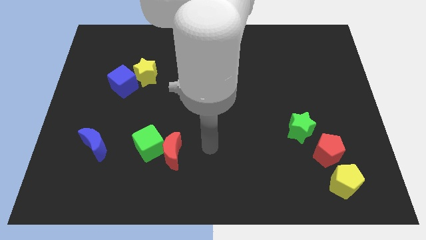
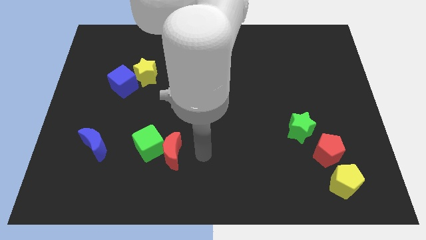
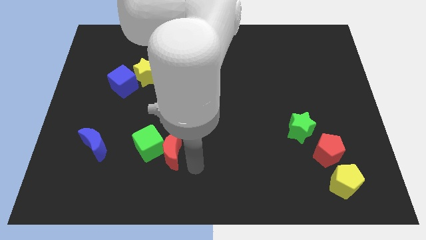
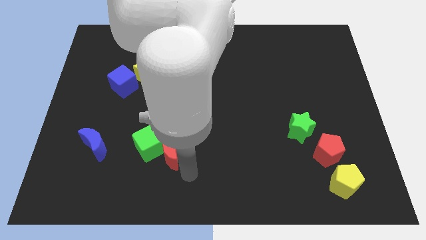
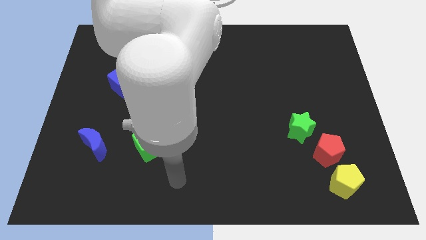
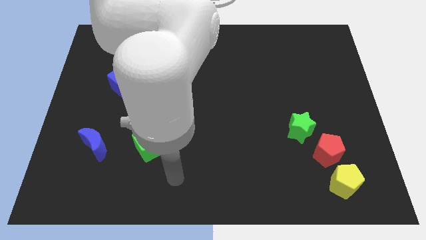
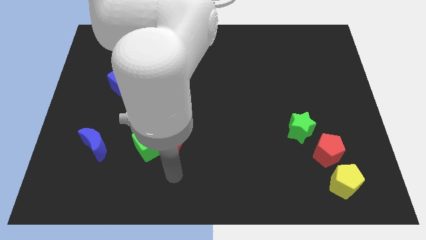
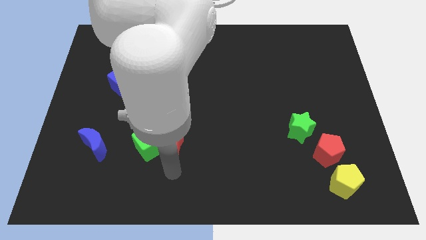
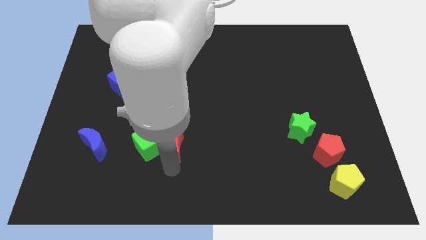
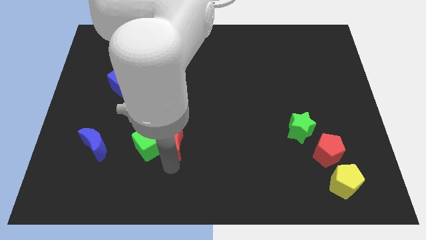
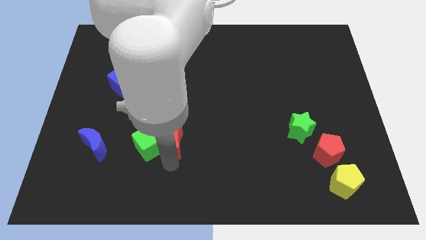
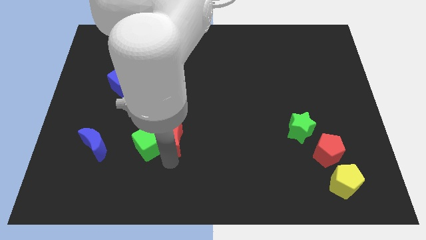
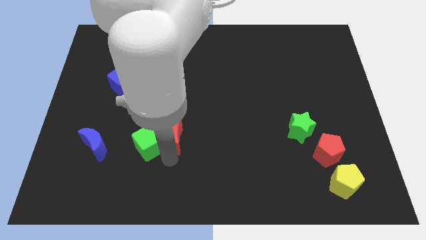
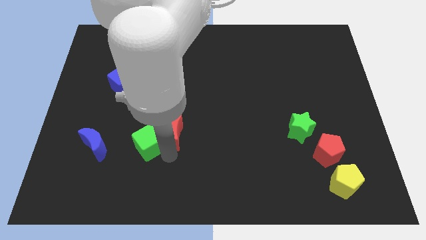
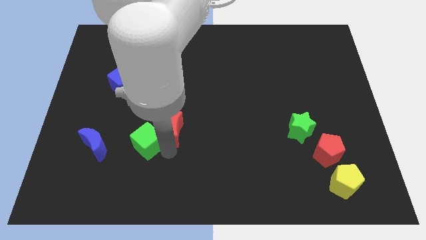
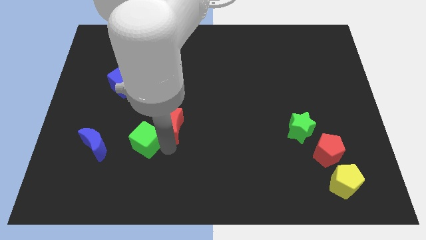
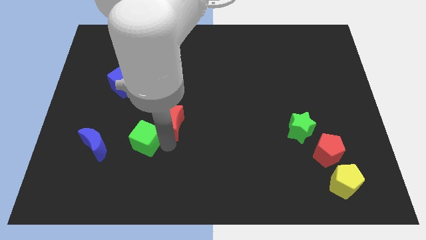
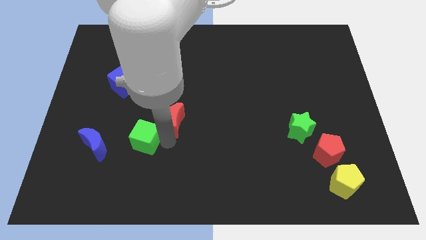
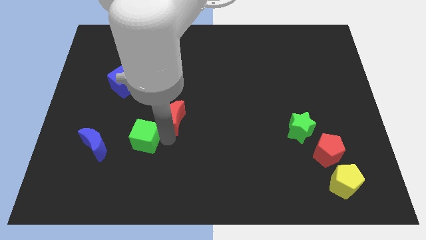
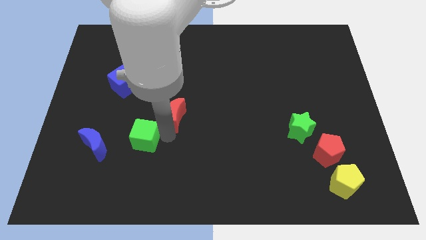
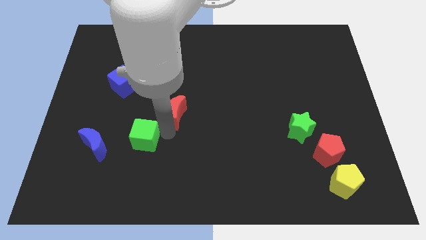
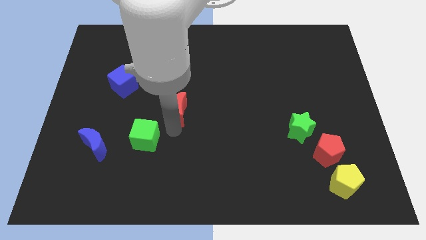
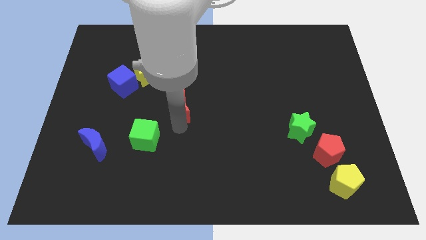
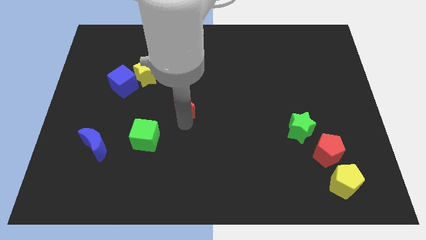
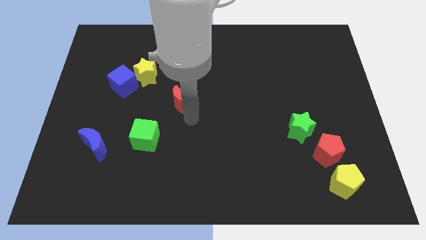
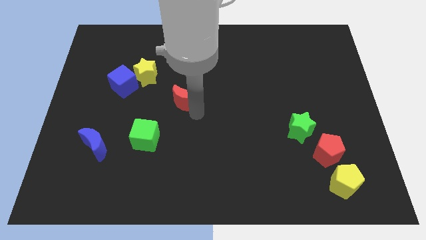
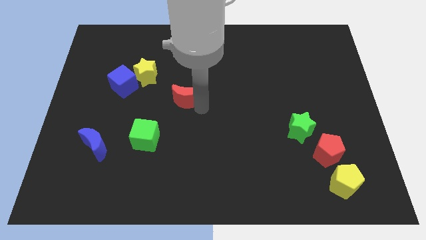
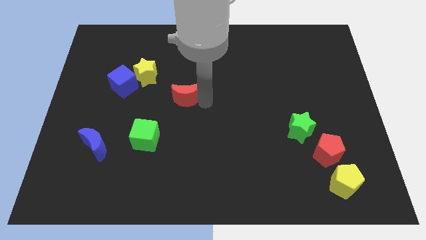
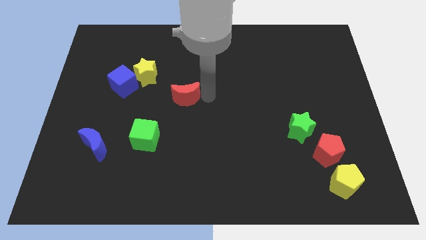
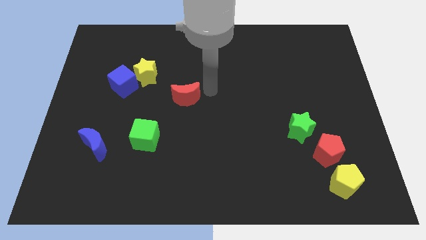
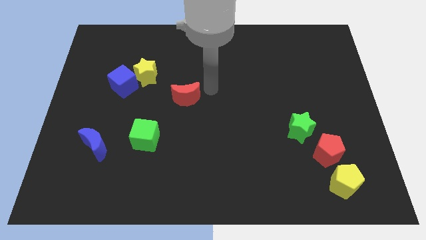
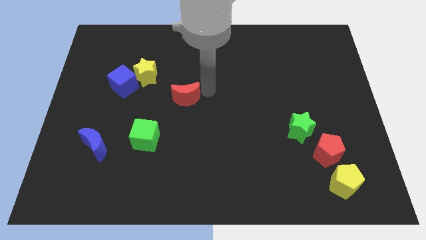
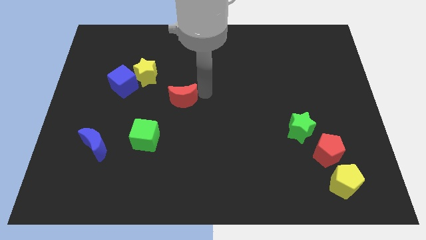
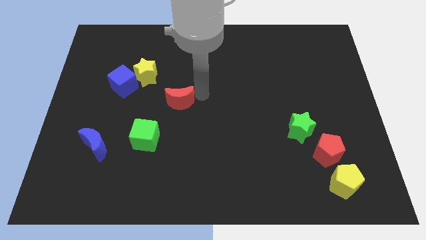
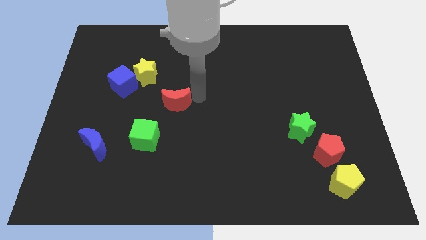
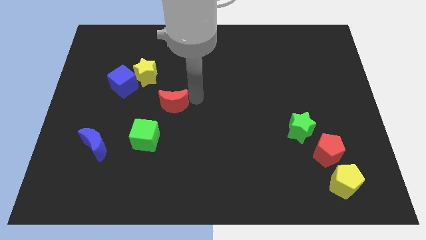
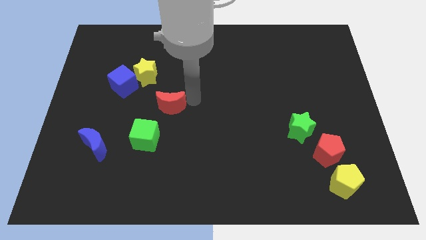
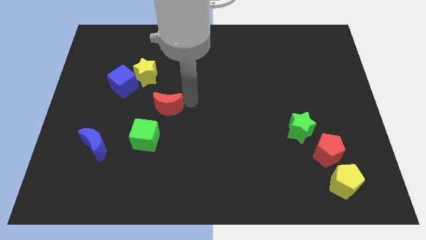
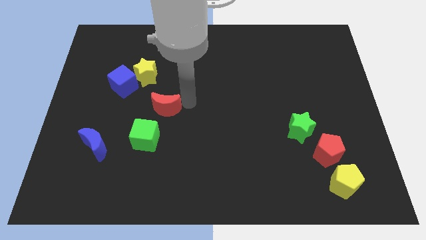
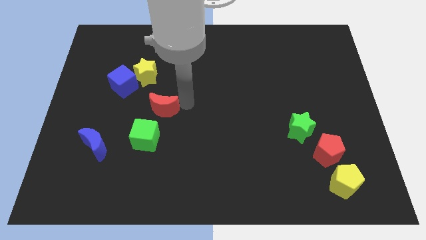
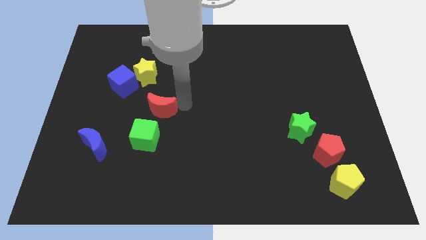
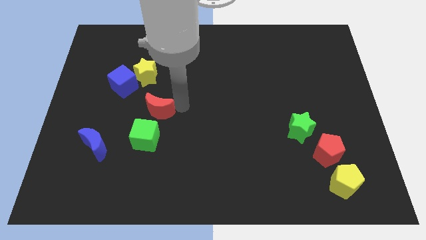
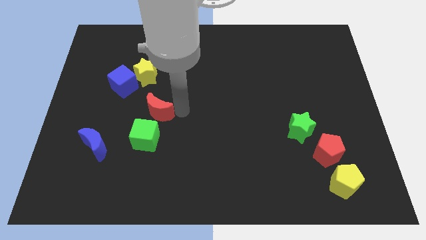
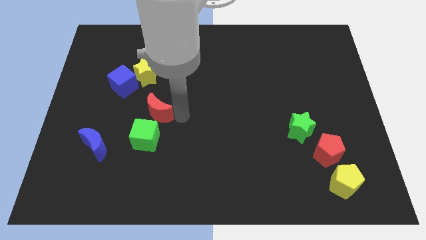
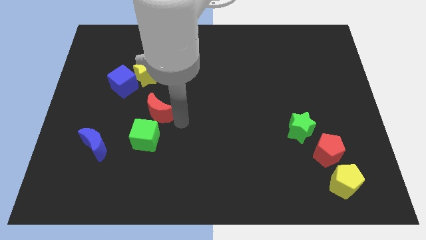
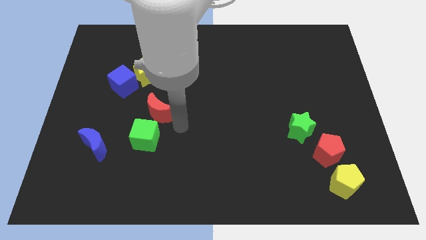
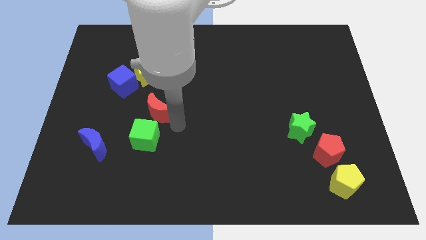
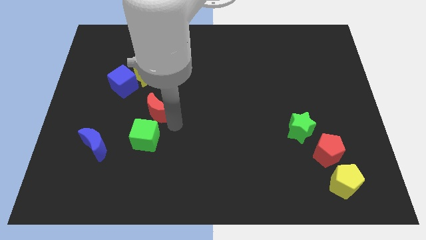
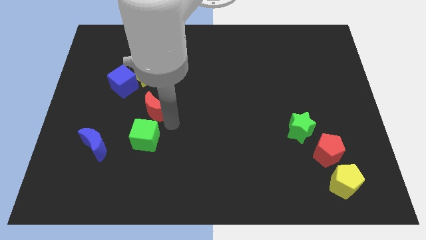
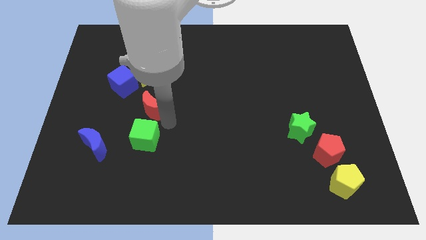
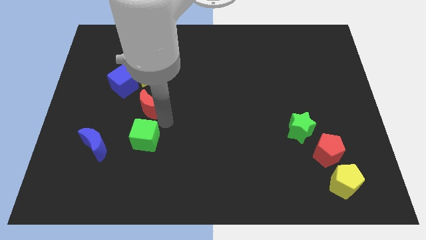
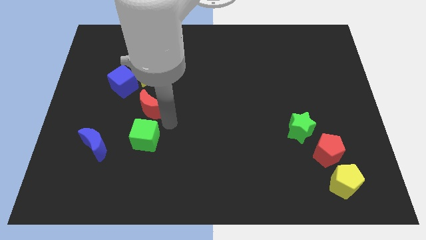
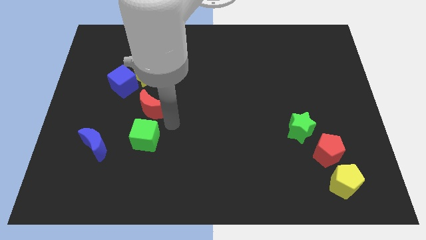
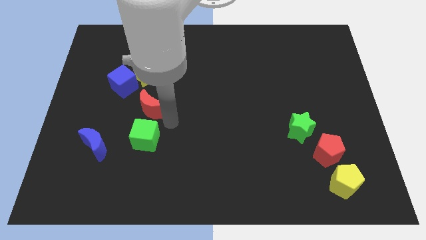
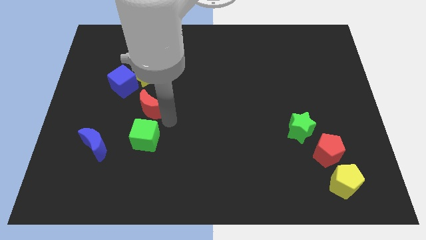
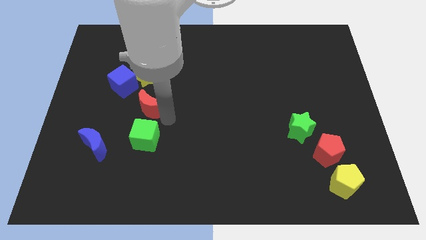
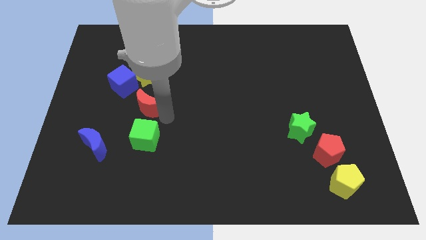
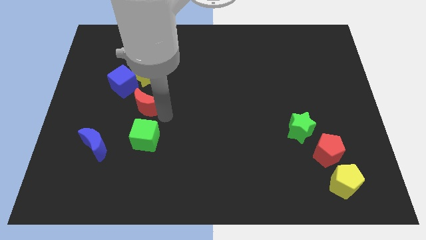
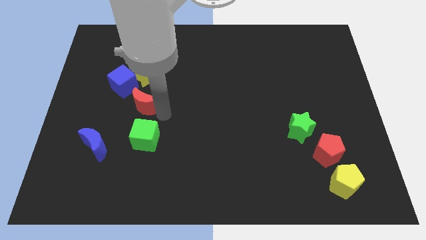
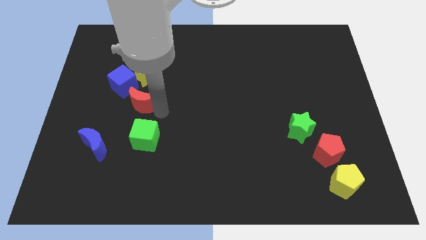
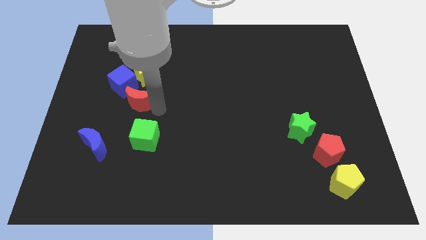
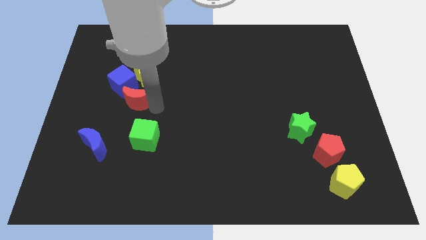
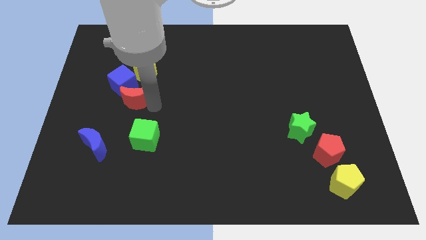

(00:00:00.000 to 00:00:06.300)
slide the red moon towards the blue cube

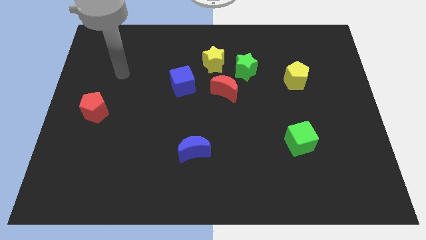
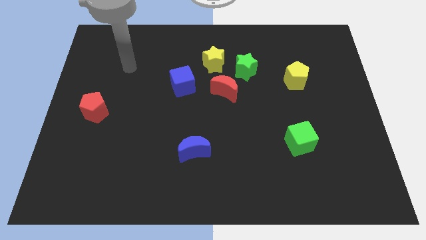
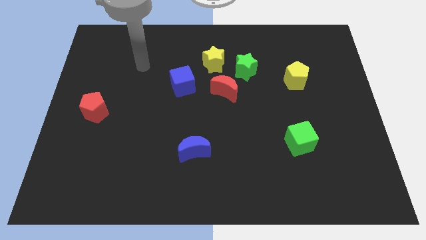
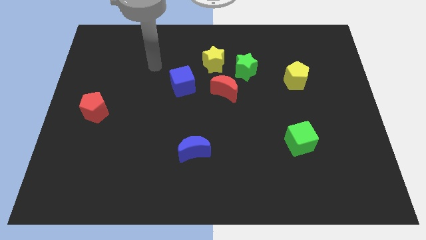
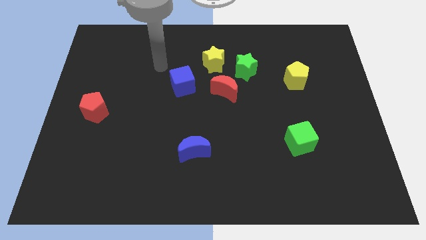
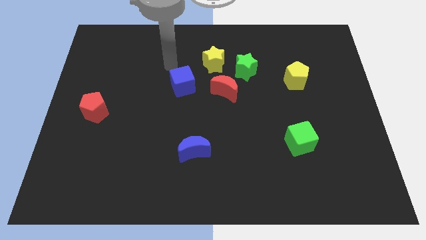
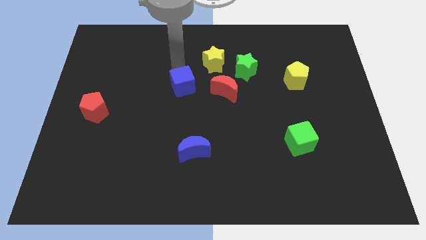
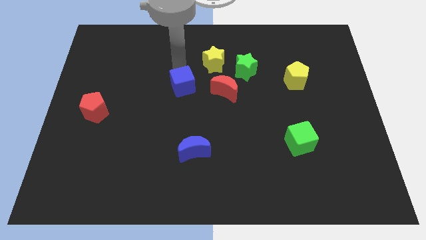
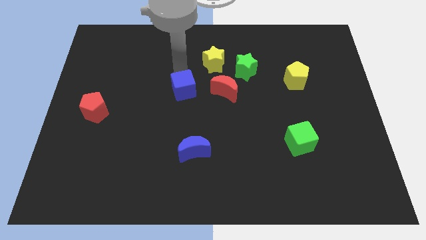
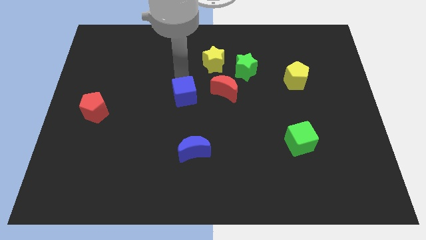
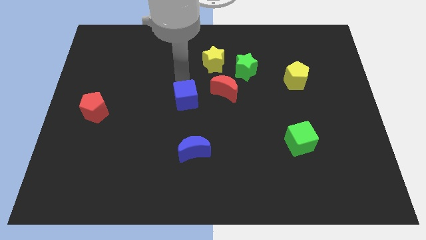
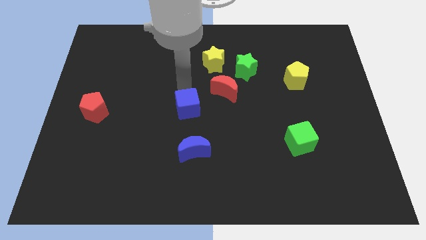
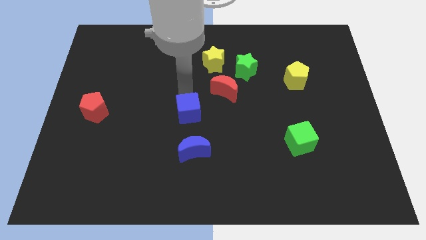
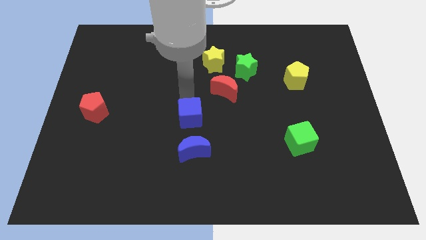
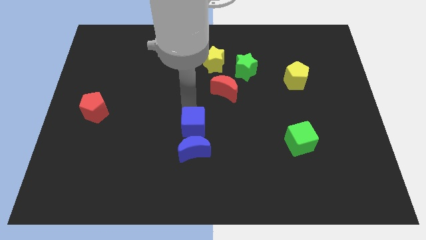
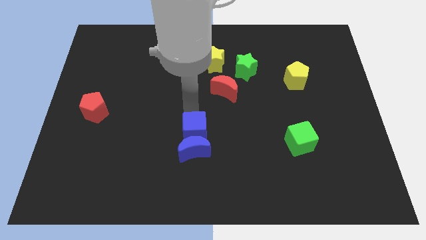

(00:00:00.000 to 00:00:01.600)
push the blue cube to the blue moon
